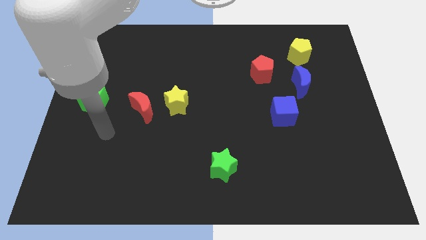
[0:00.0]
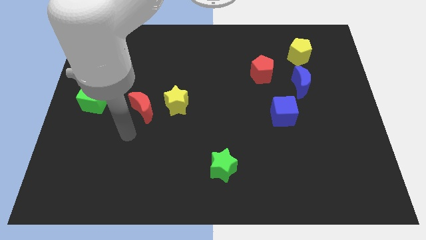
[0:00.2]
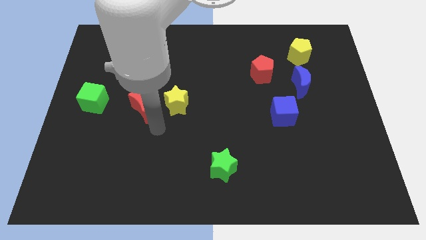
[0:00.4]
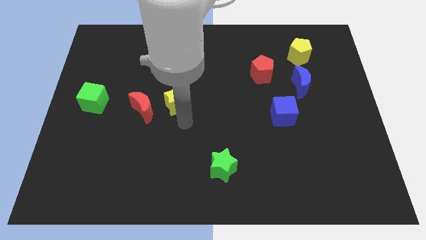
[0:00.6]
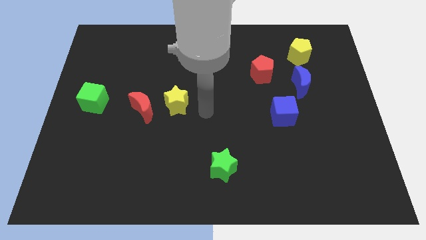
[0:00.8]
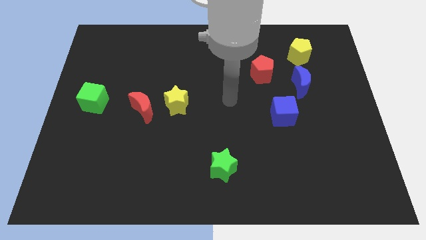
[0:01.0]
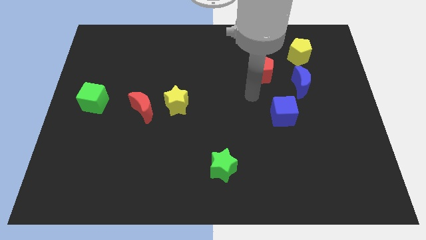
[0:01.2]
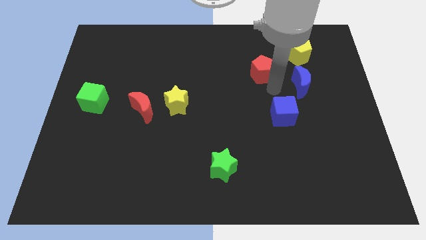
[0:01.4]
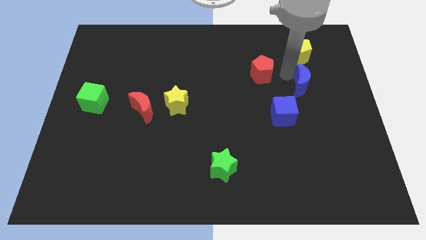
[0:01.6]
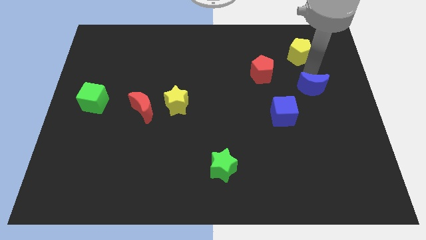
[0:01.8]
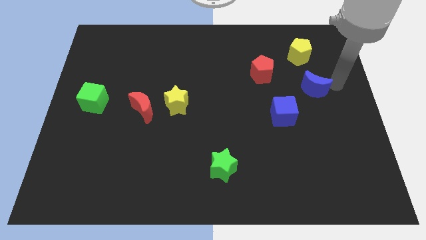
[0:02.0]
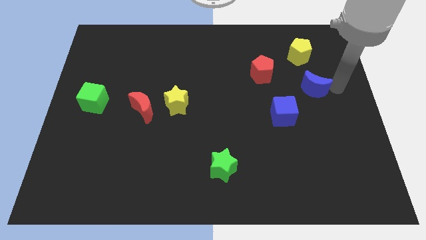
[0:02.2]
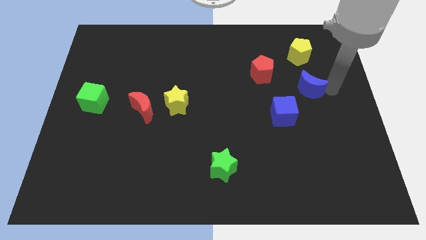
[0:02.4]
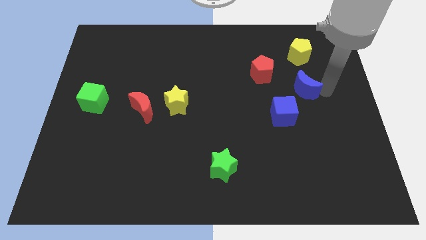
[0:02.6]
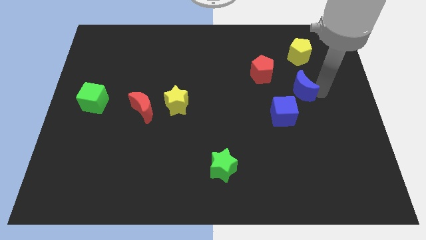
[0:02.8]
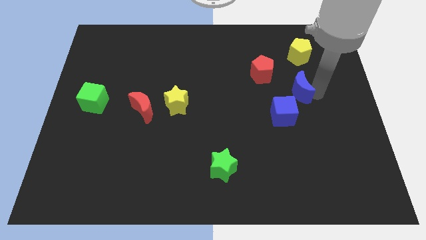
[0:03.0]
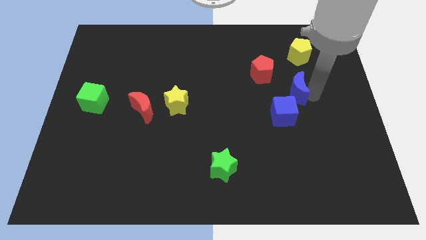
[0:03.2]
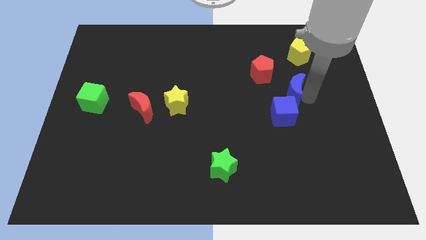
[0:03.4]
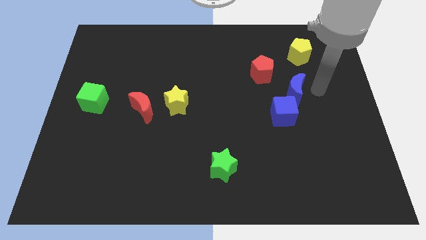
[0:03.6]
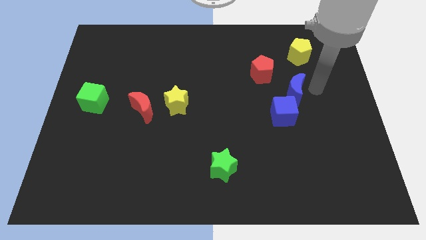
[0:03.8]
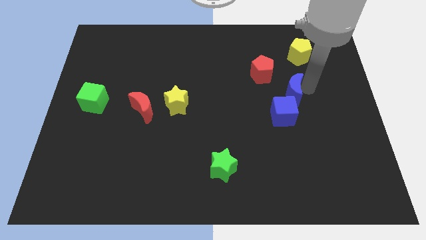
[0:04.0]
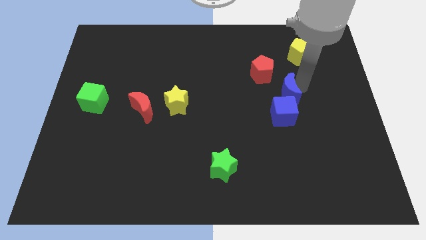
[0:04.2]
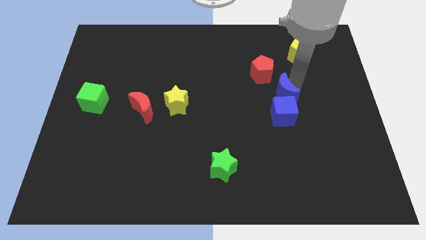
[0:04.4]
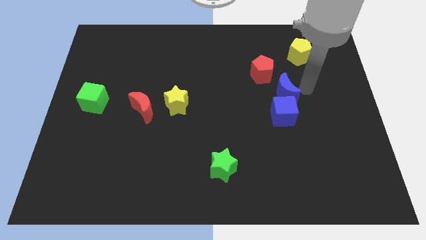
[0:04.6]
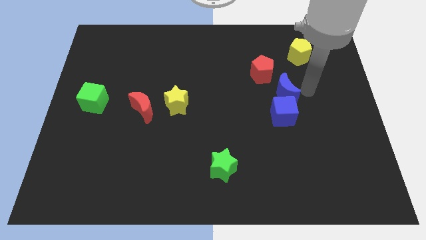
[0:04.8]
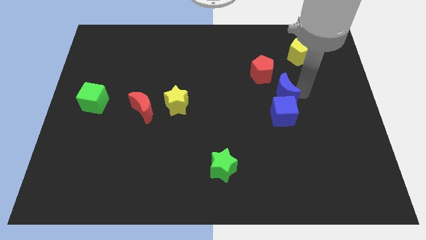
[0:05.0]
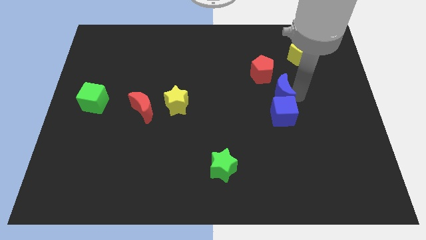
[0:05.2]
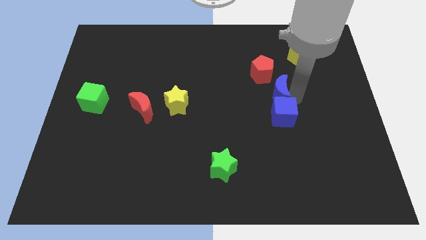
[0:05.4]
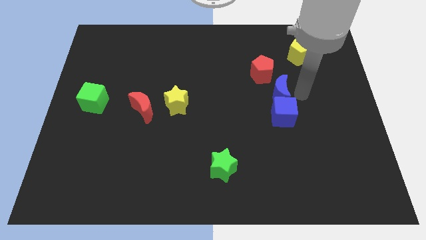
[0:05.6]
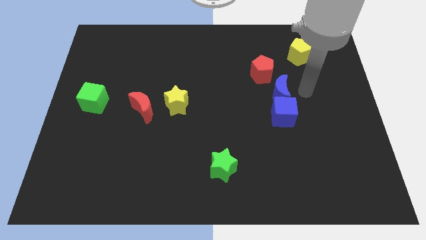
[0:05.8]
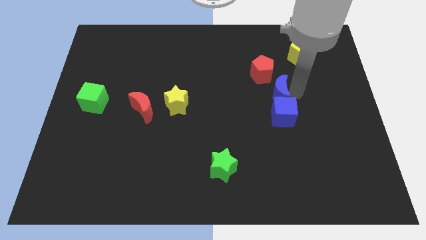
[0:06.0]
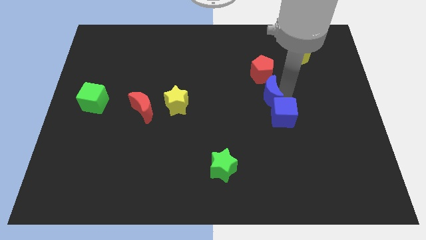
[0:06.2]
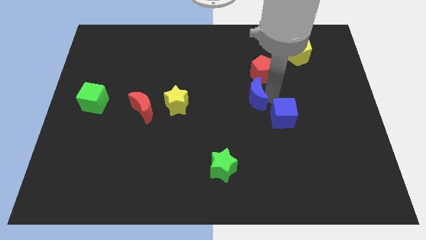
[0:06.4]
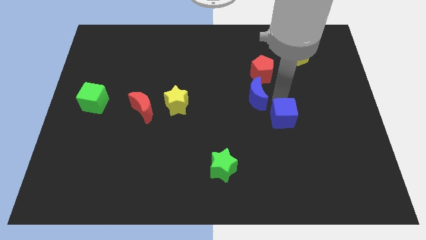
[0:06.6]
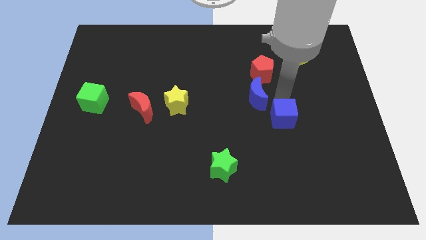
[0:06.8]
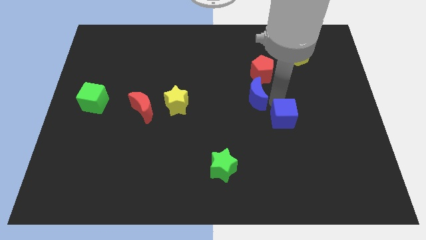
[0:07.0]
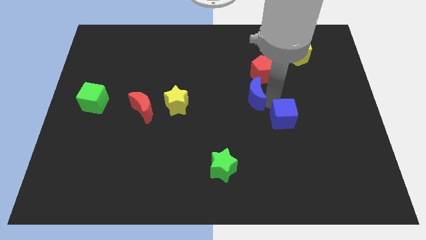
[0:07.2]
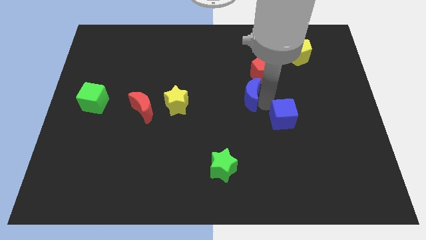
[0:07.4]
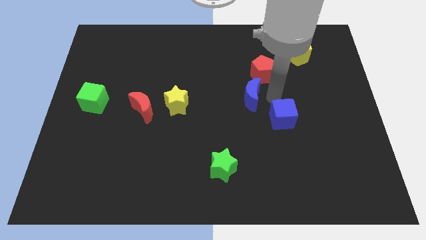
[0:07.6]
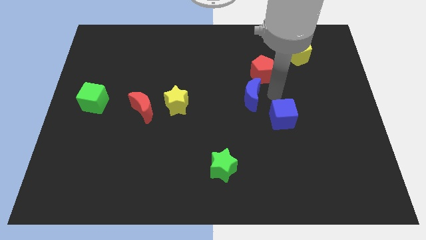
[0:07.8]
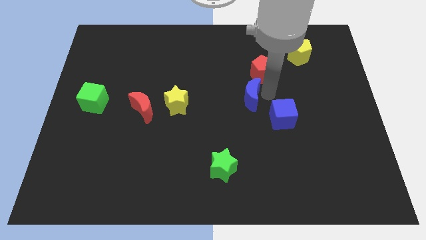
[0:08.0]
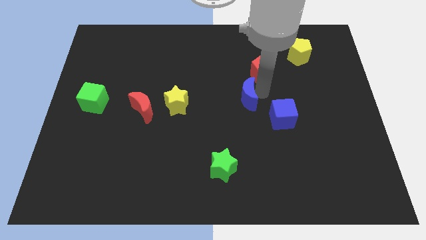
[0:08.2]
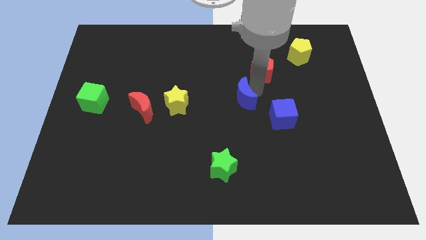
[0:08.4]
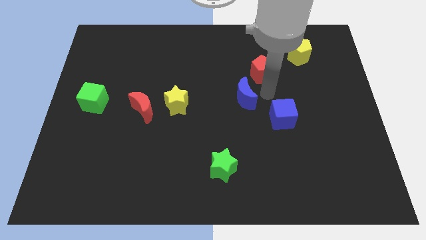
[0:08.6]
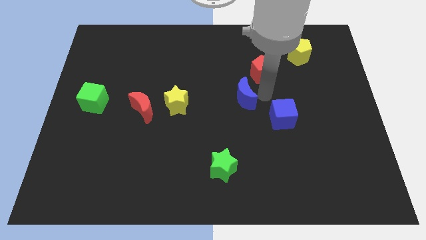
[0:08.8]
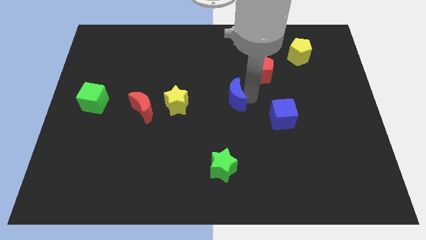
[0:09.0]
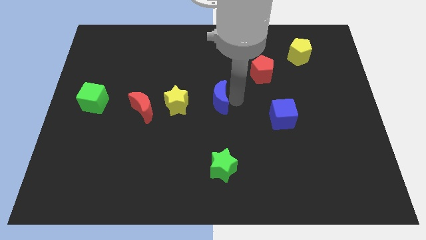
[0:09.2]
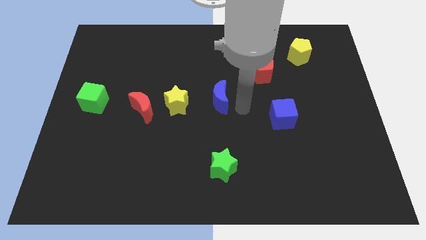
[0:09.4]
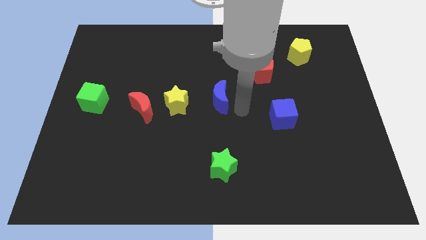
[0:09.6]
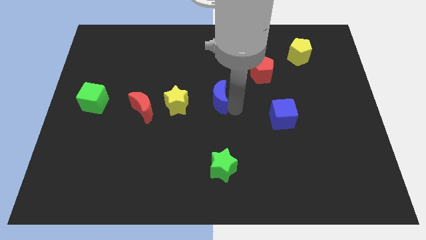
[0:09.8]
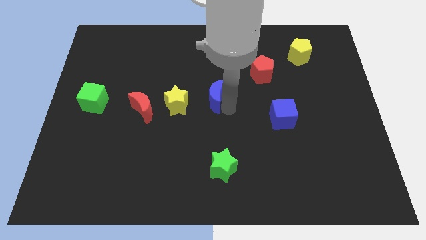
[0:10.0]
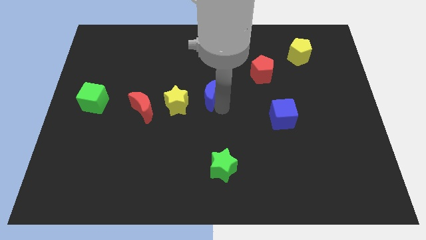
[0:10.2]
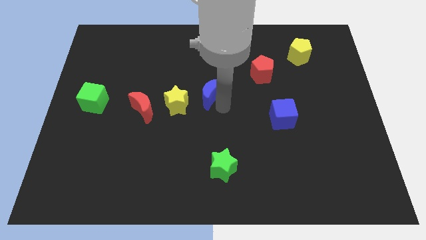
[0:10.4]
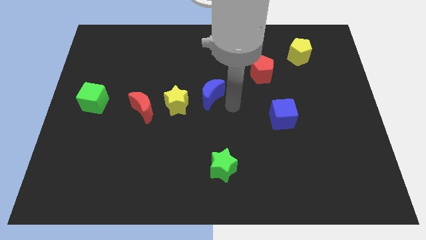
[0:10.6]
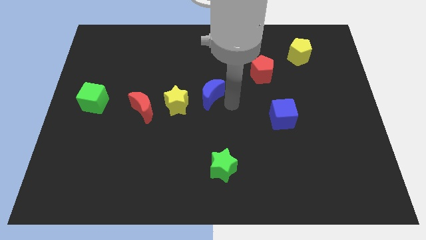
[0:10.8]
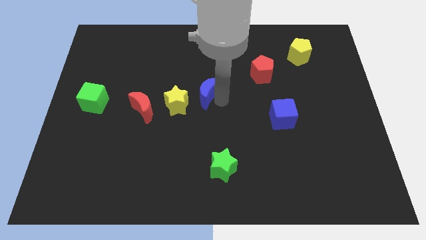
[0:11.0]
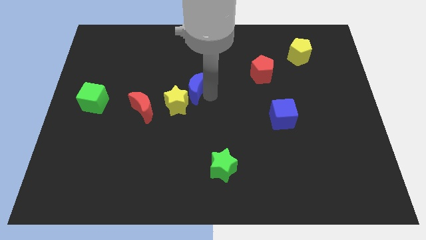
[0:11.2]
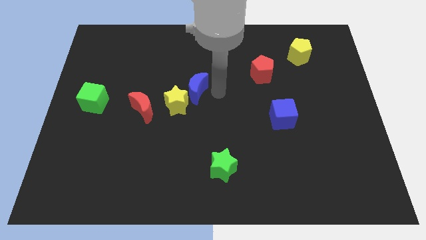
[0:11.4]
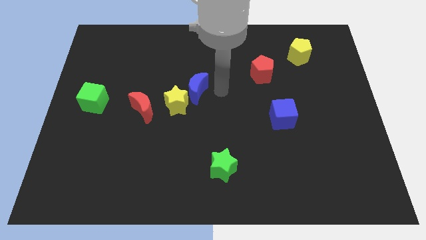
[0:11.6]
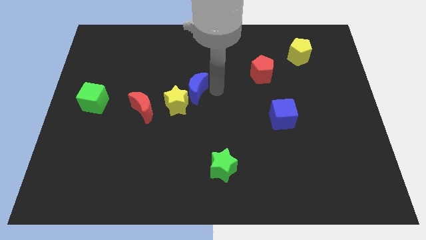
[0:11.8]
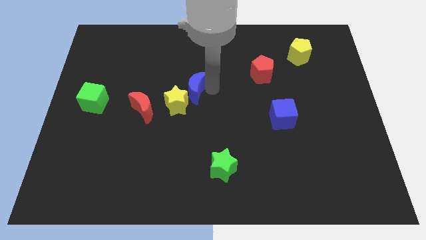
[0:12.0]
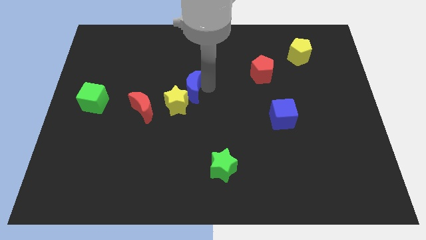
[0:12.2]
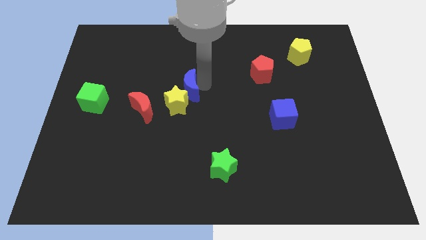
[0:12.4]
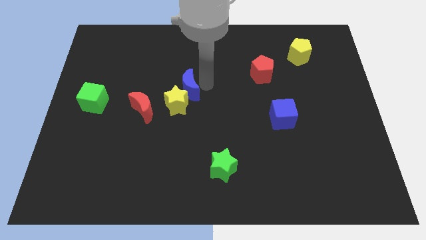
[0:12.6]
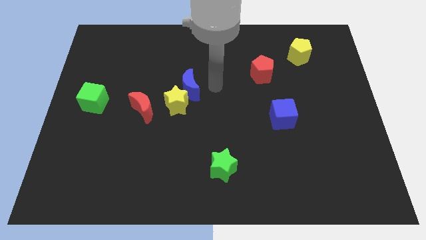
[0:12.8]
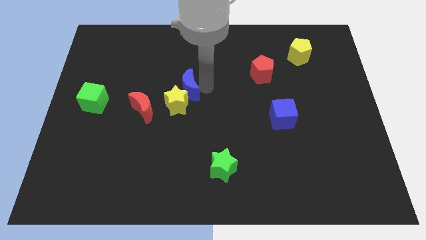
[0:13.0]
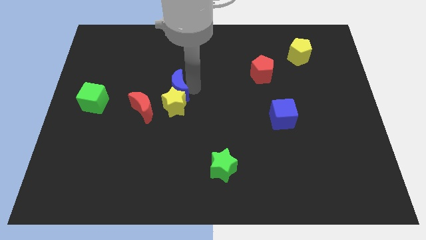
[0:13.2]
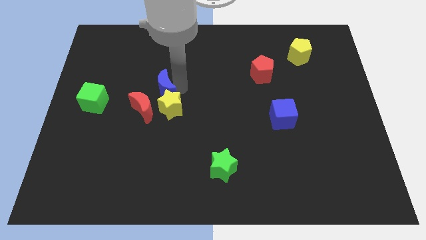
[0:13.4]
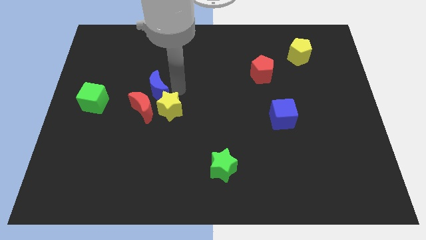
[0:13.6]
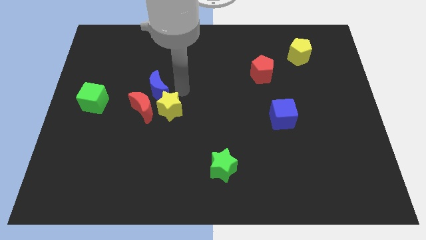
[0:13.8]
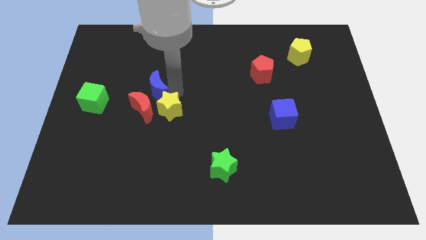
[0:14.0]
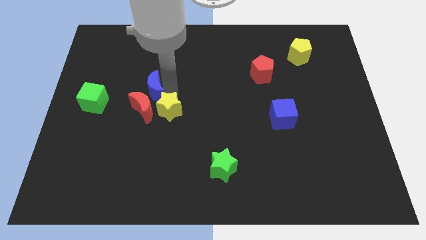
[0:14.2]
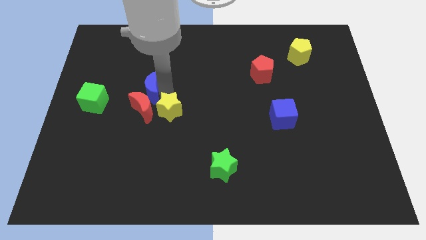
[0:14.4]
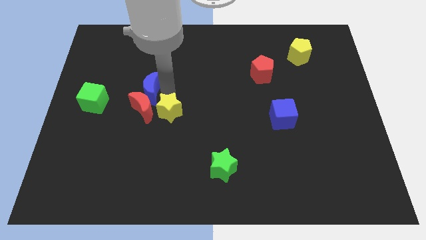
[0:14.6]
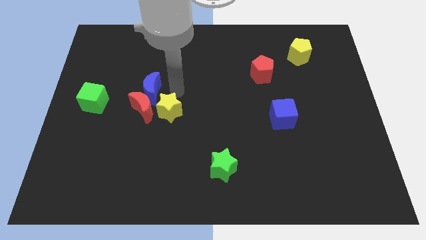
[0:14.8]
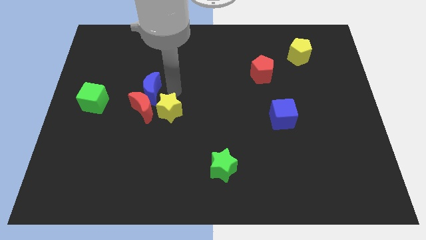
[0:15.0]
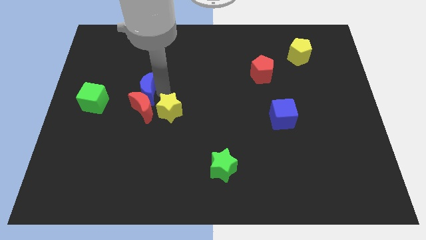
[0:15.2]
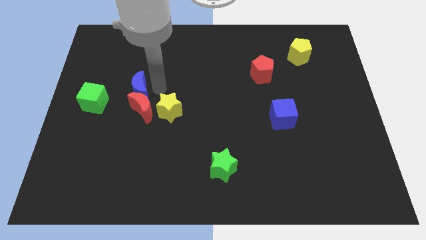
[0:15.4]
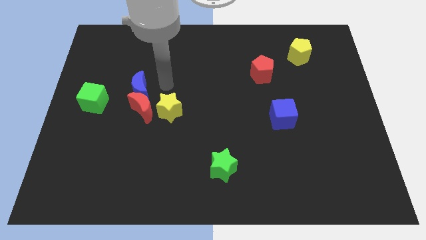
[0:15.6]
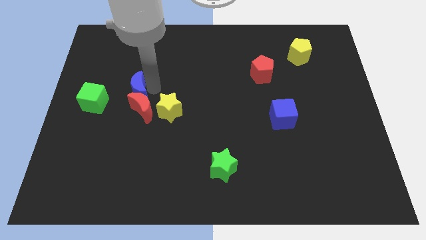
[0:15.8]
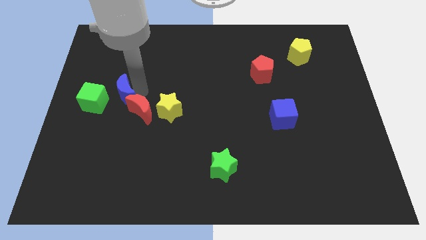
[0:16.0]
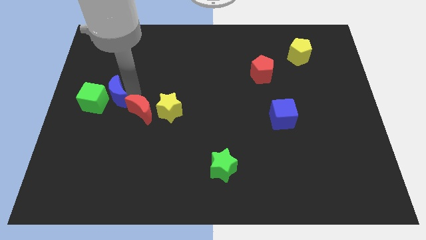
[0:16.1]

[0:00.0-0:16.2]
slide the blue moon next to the green cube
